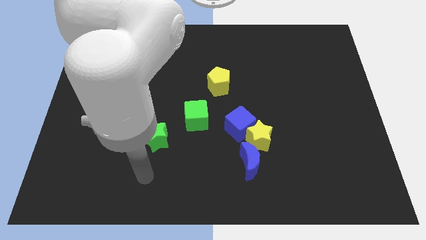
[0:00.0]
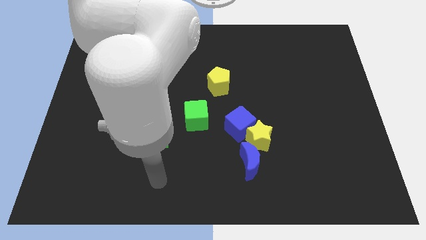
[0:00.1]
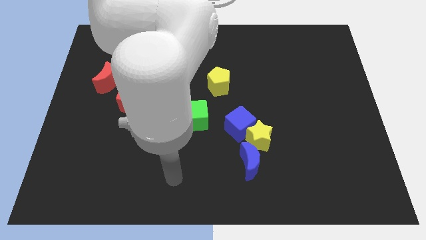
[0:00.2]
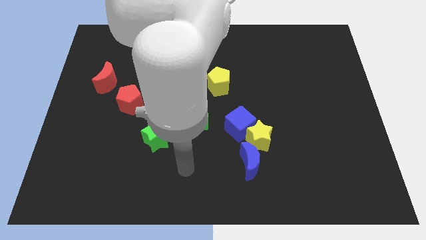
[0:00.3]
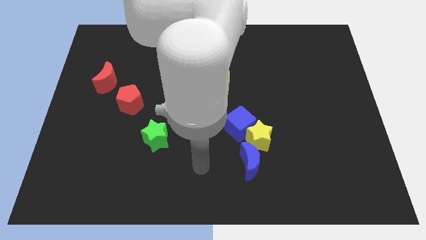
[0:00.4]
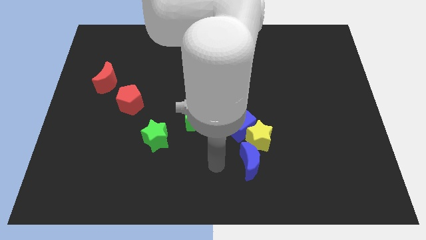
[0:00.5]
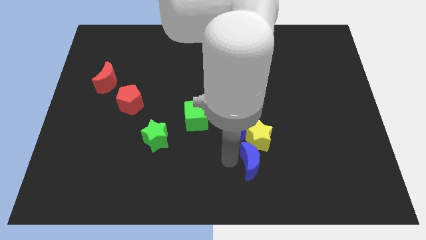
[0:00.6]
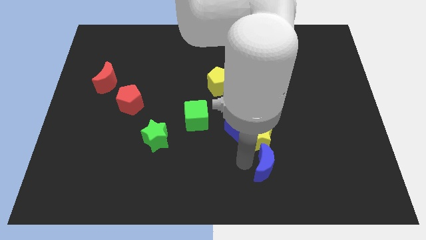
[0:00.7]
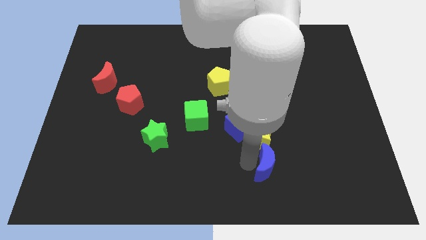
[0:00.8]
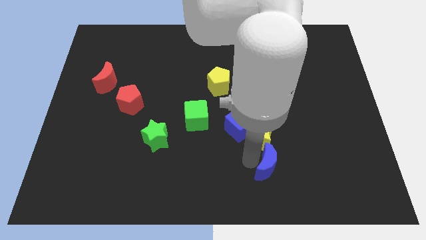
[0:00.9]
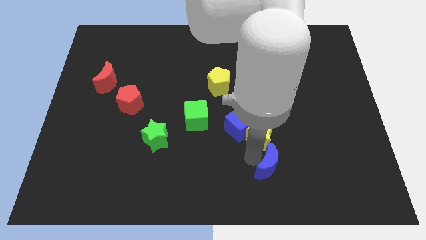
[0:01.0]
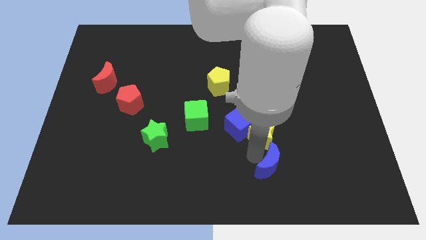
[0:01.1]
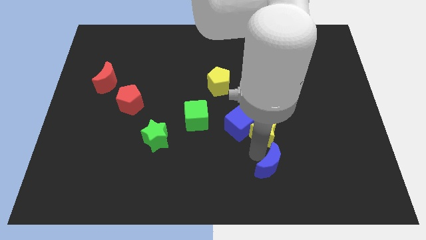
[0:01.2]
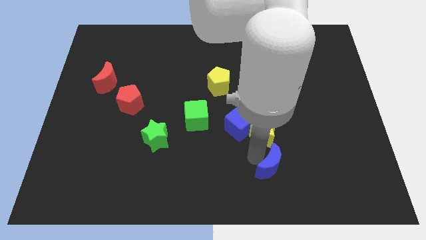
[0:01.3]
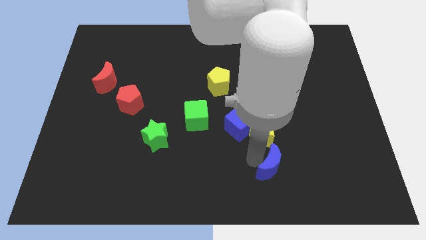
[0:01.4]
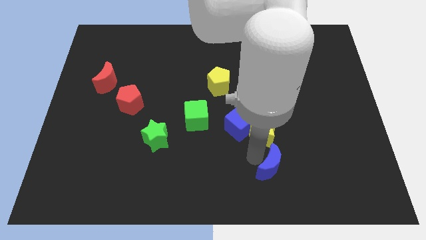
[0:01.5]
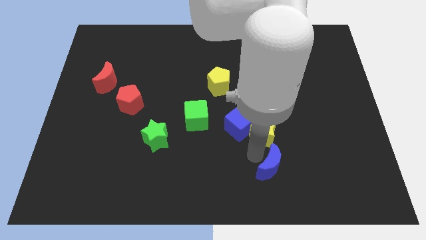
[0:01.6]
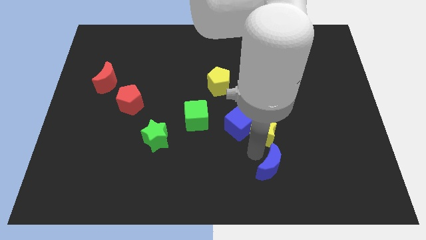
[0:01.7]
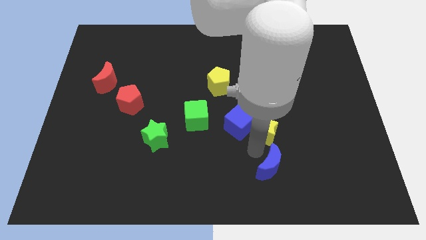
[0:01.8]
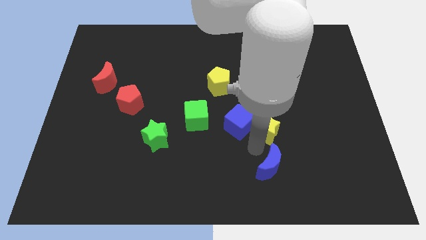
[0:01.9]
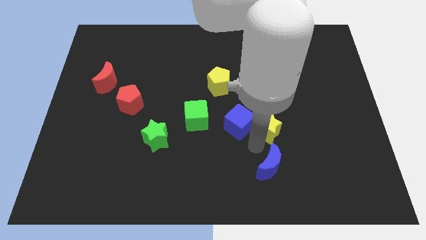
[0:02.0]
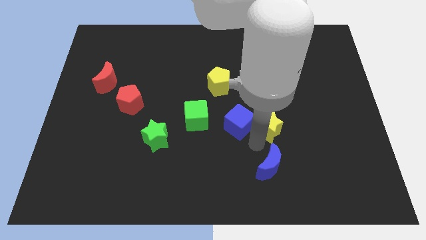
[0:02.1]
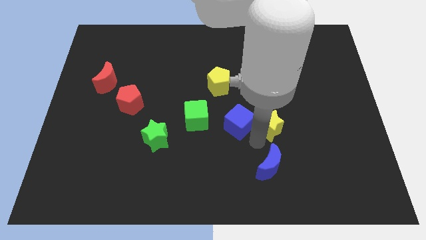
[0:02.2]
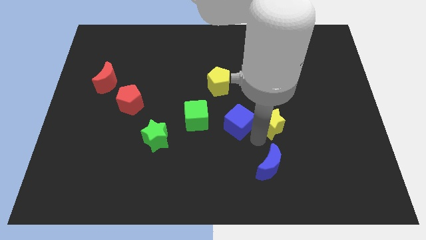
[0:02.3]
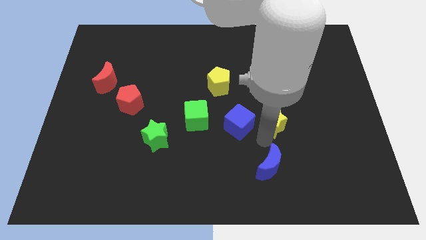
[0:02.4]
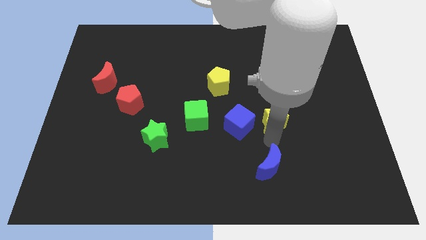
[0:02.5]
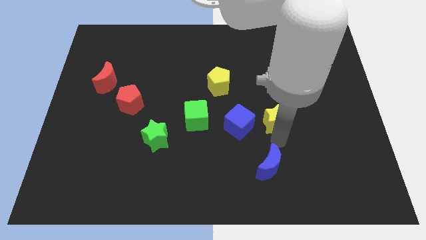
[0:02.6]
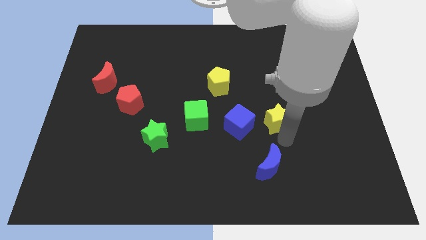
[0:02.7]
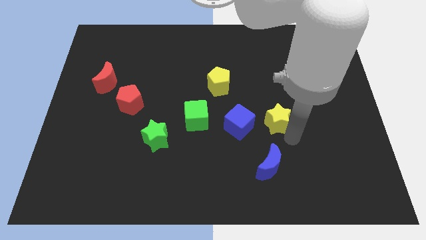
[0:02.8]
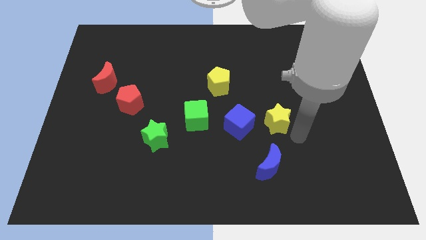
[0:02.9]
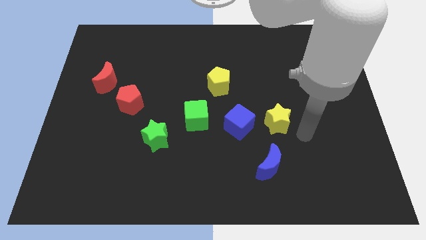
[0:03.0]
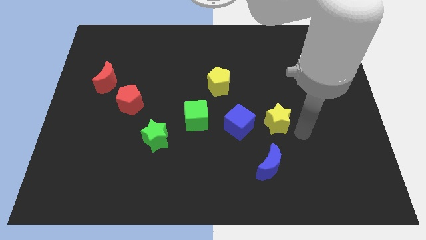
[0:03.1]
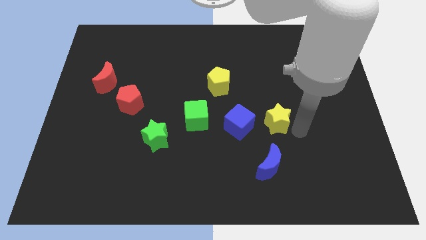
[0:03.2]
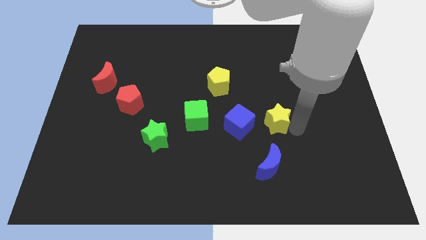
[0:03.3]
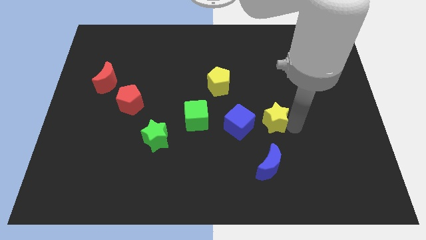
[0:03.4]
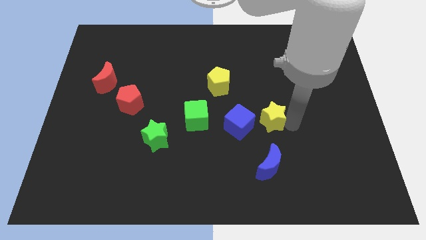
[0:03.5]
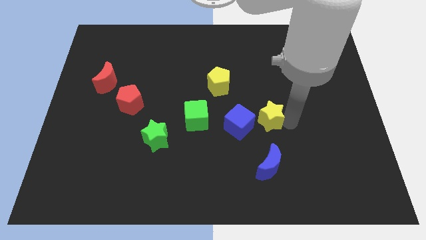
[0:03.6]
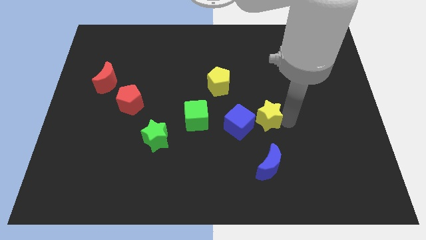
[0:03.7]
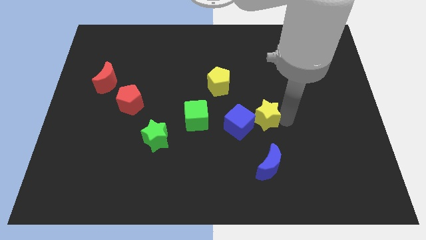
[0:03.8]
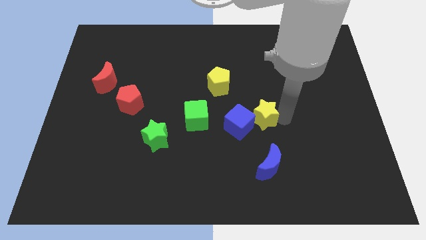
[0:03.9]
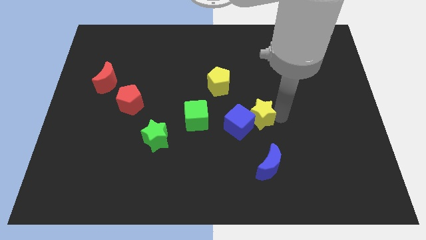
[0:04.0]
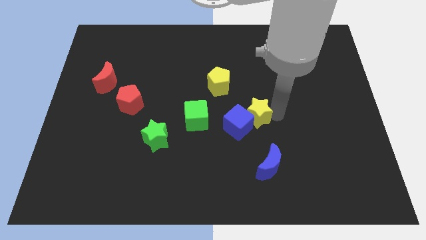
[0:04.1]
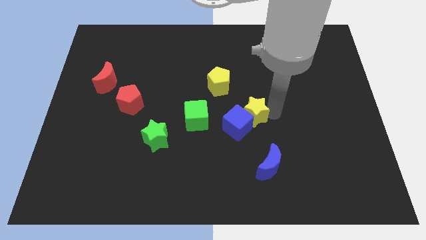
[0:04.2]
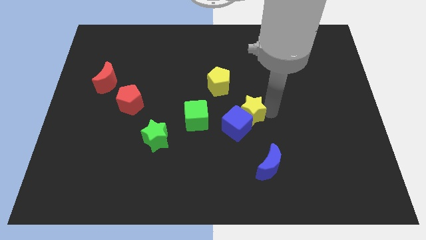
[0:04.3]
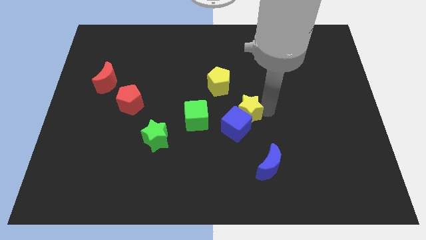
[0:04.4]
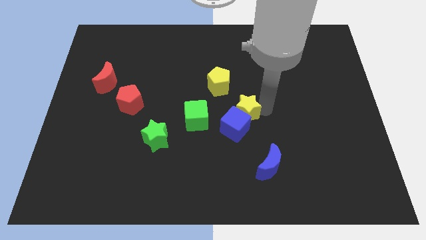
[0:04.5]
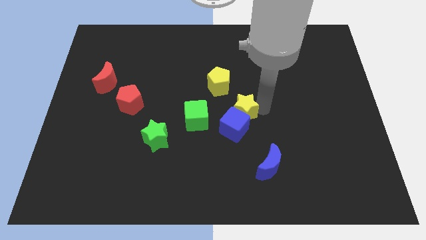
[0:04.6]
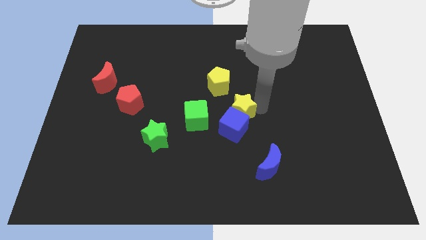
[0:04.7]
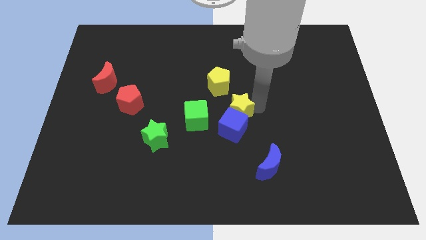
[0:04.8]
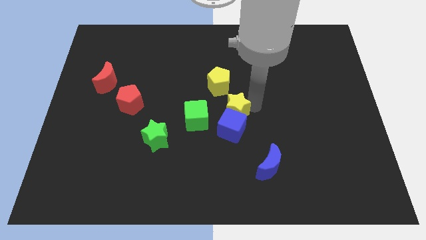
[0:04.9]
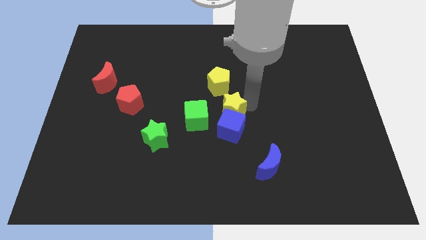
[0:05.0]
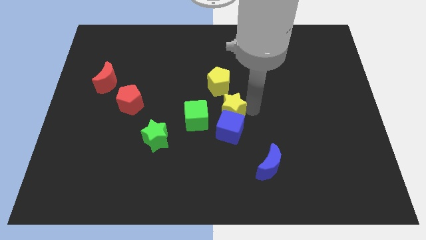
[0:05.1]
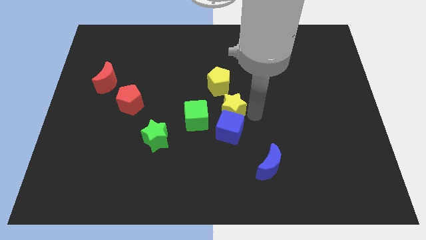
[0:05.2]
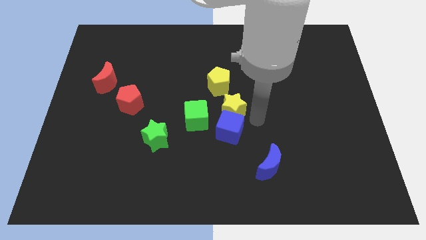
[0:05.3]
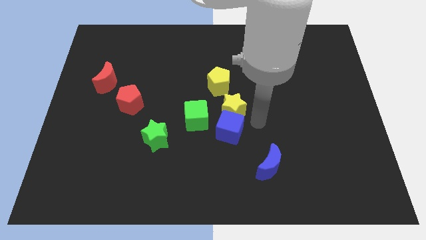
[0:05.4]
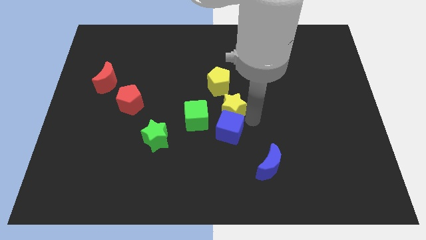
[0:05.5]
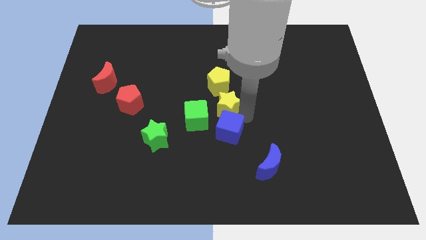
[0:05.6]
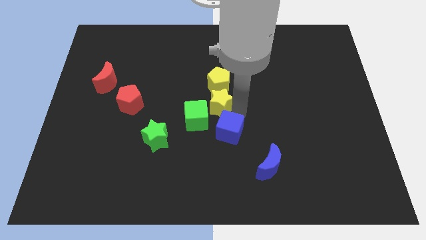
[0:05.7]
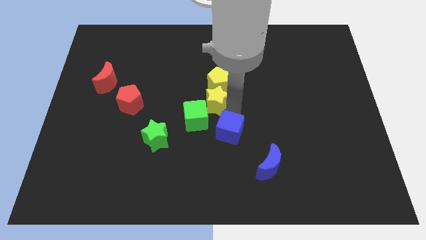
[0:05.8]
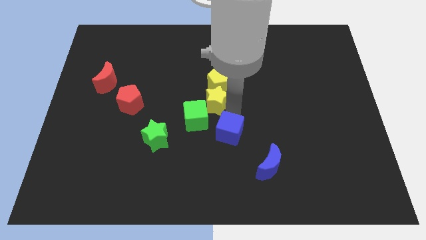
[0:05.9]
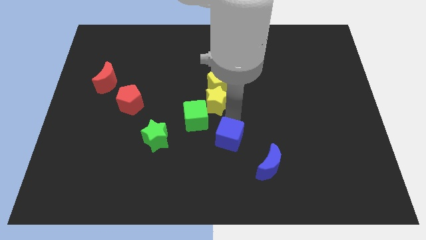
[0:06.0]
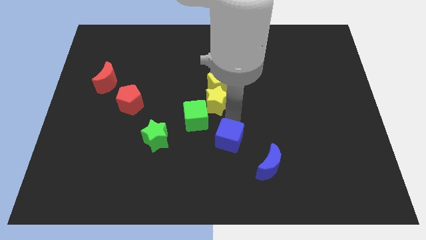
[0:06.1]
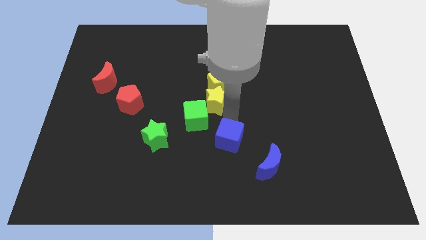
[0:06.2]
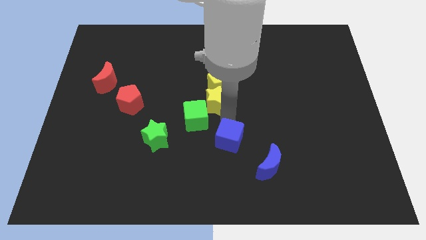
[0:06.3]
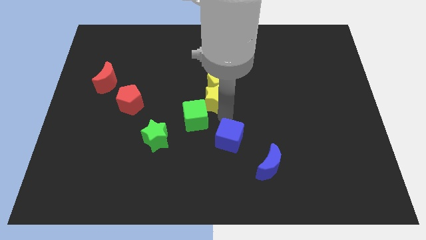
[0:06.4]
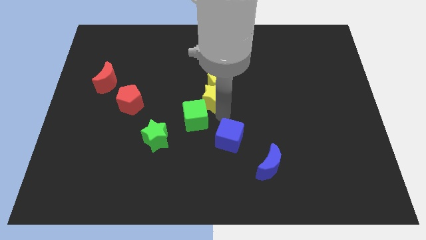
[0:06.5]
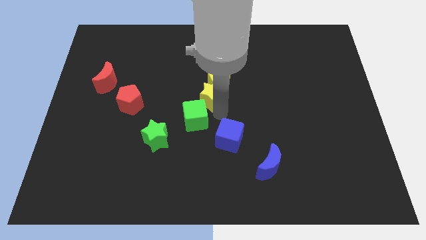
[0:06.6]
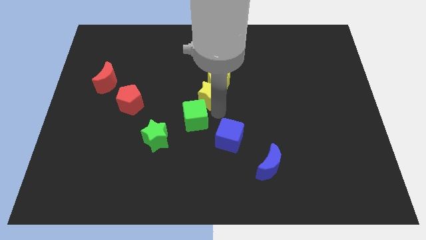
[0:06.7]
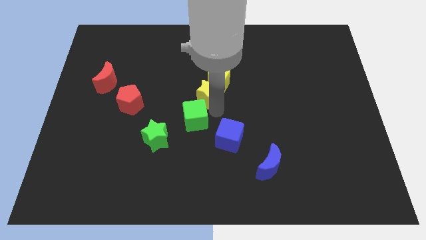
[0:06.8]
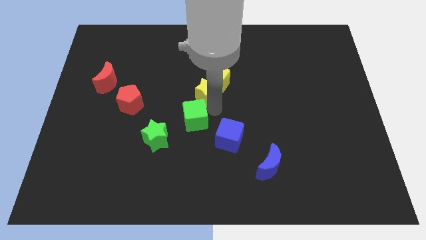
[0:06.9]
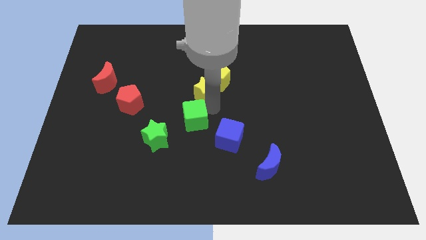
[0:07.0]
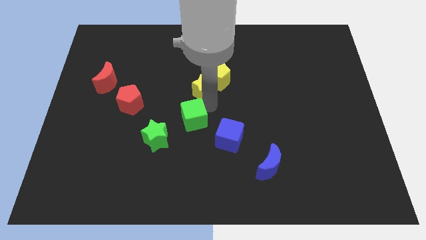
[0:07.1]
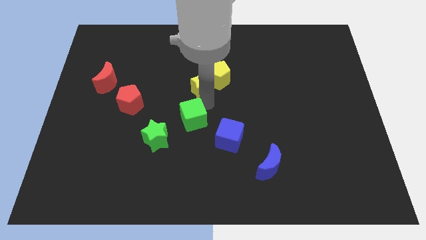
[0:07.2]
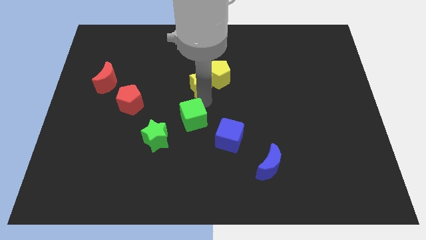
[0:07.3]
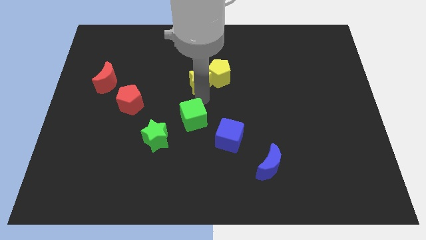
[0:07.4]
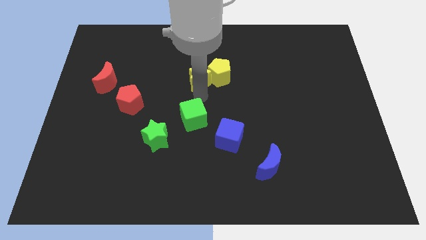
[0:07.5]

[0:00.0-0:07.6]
put the yellow star diagonally up and to the left of the yellow pentagon
